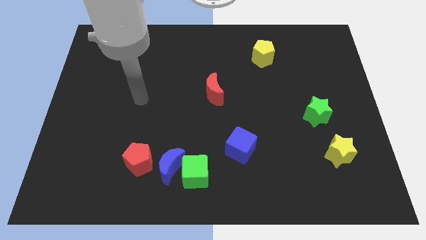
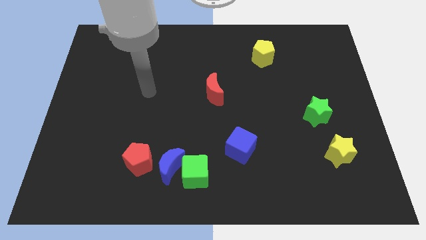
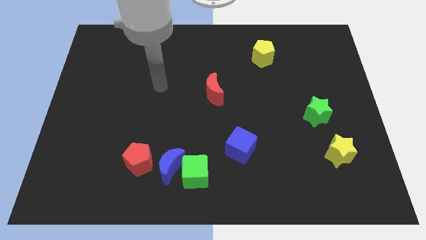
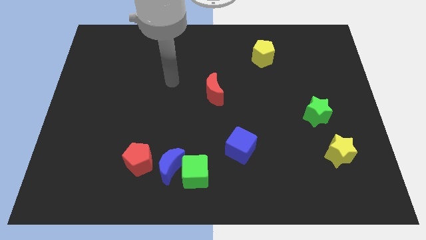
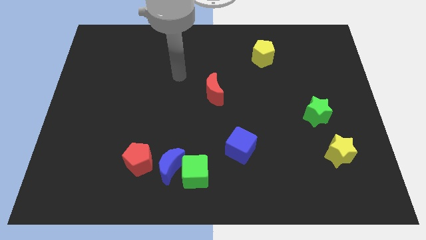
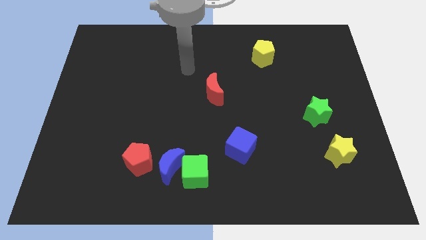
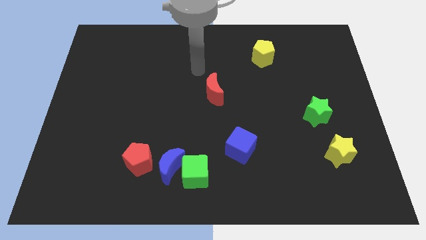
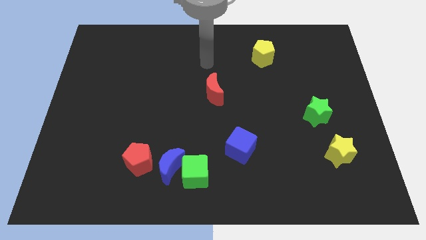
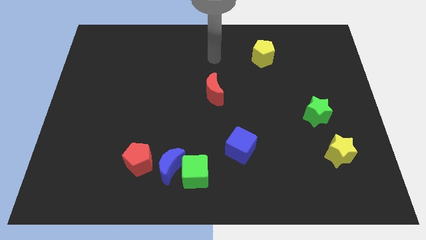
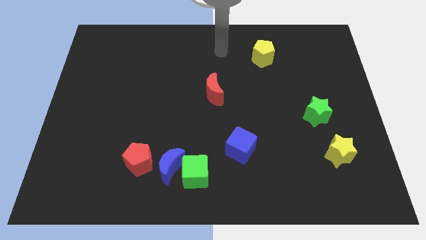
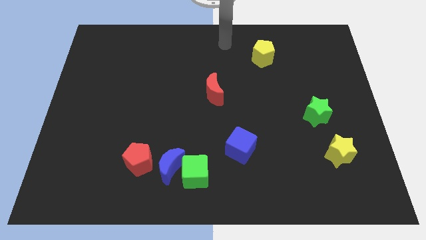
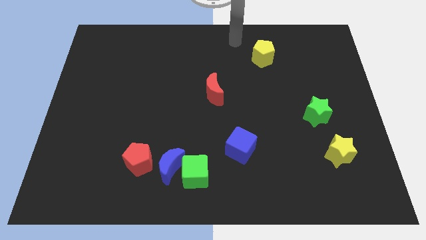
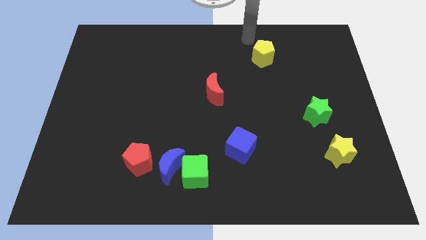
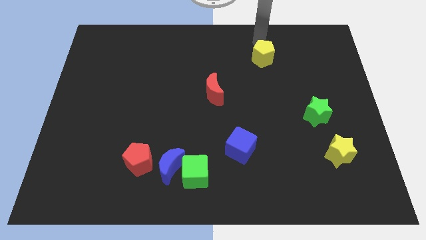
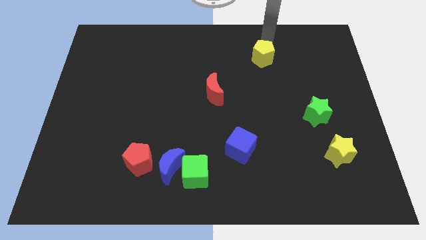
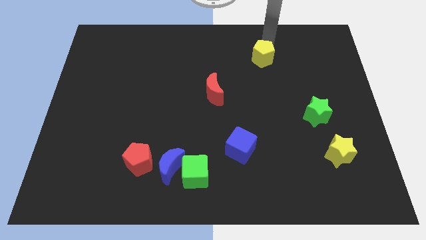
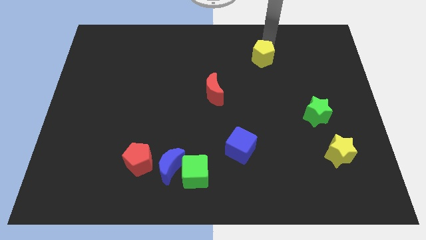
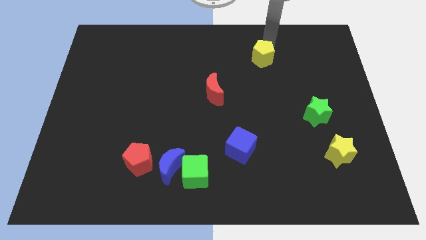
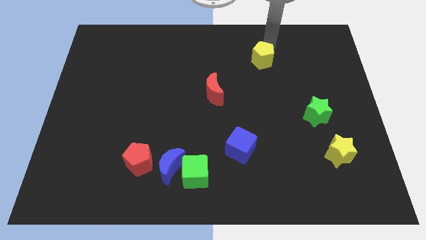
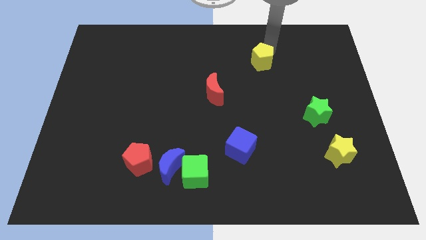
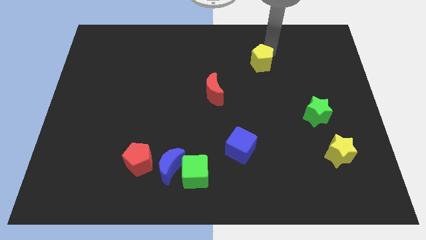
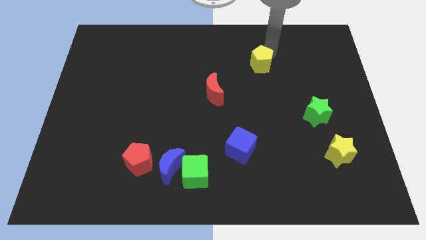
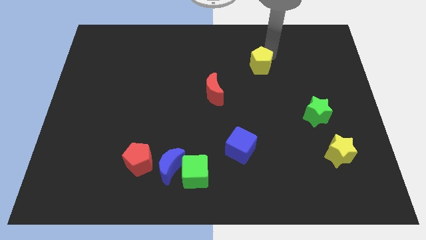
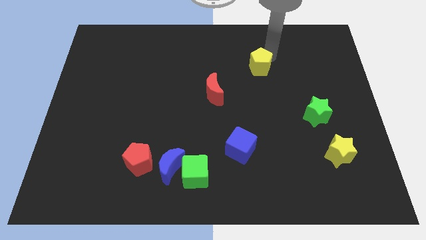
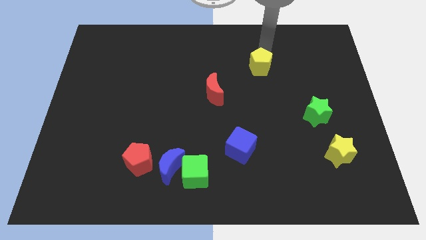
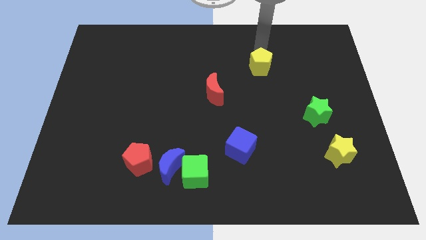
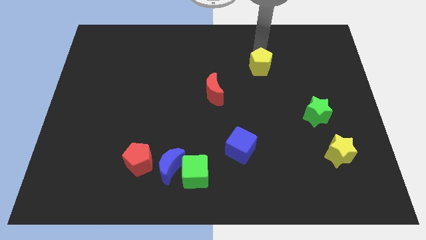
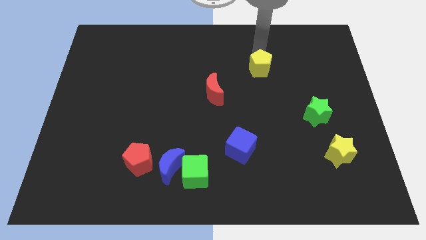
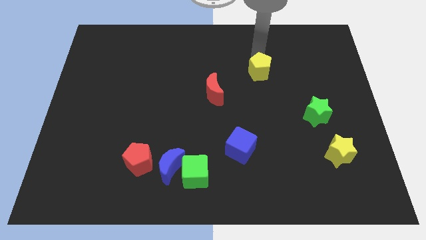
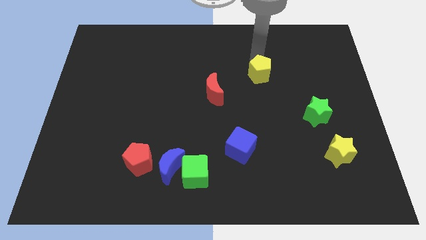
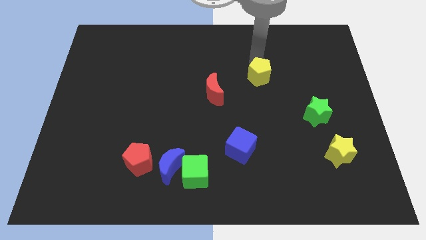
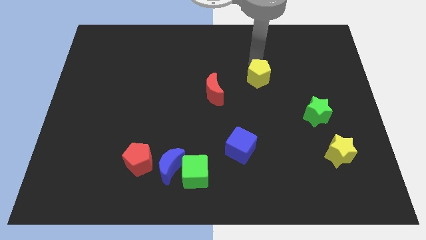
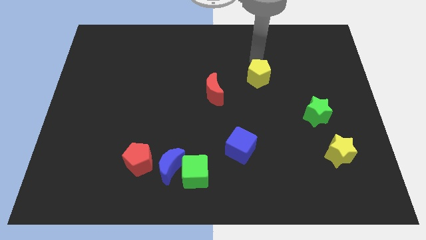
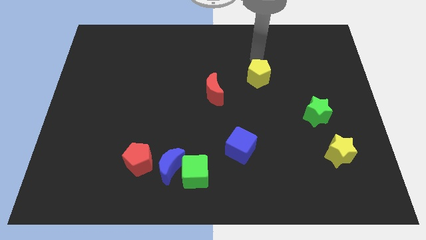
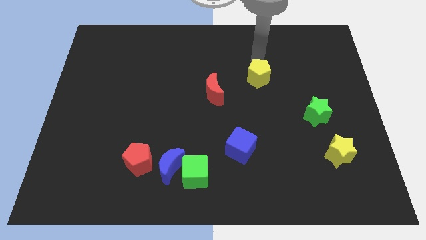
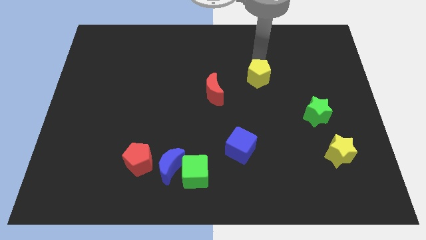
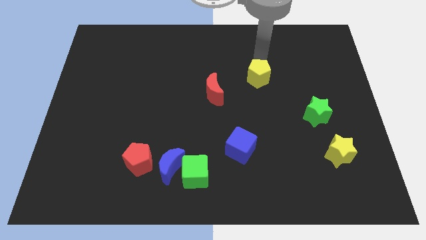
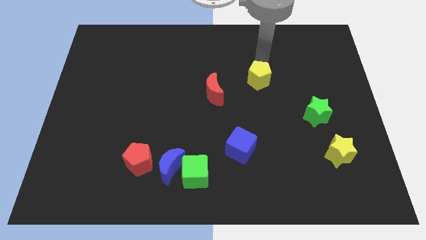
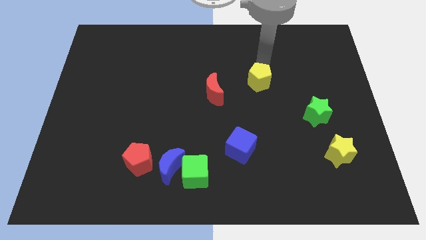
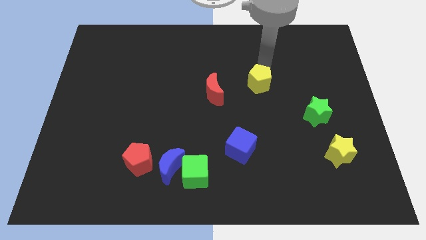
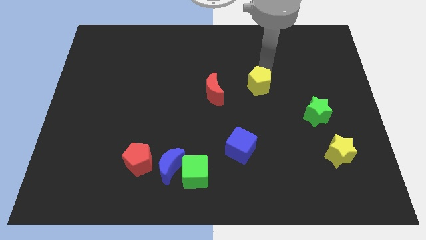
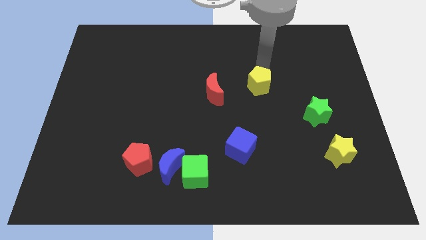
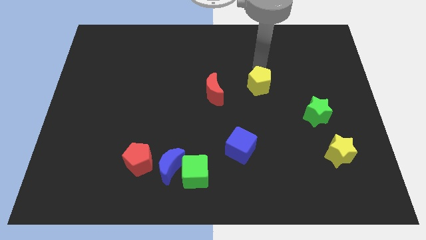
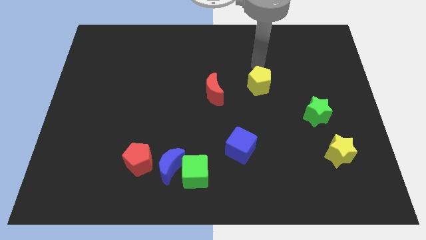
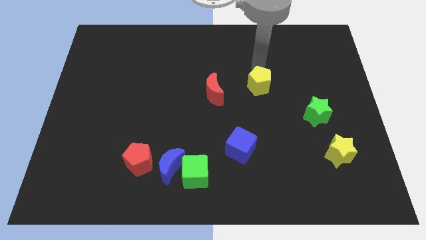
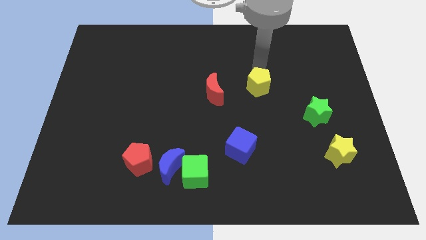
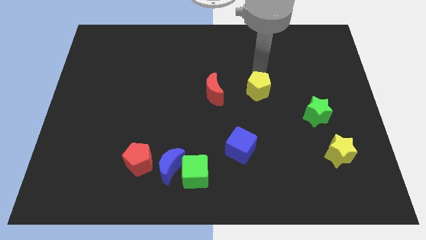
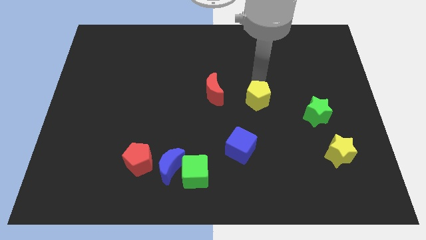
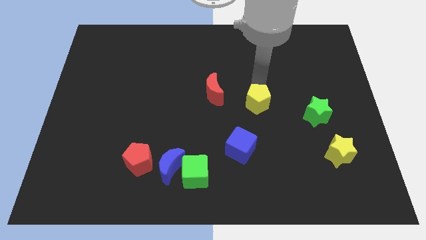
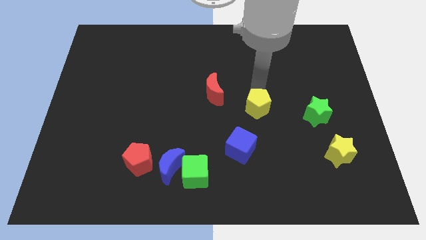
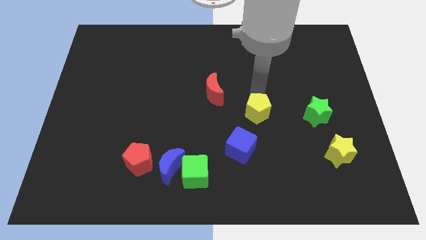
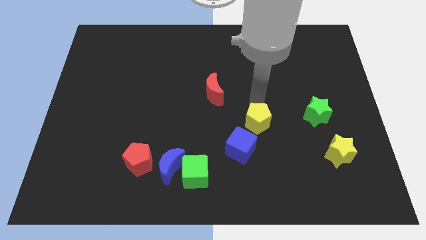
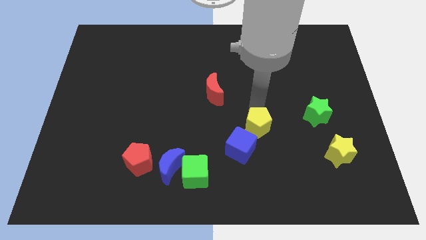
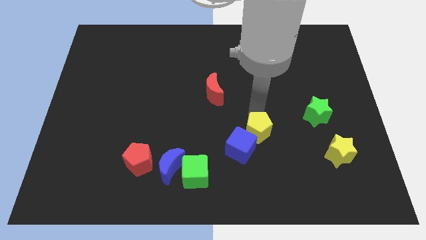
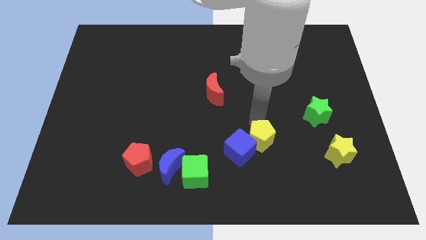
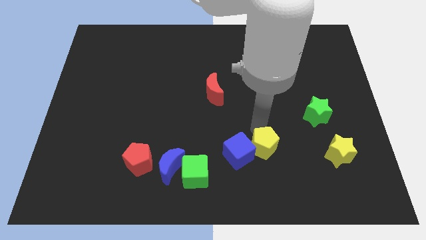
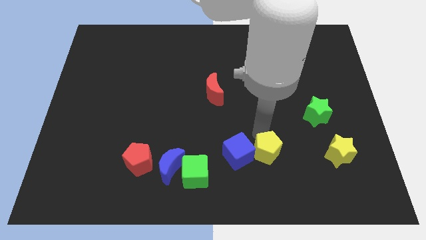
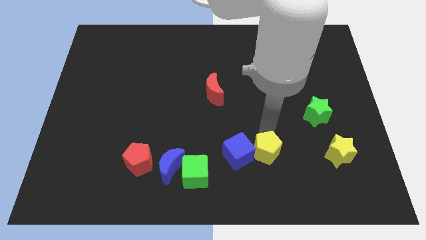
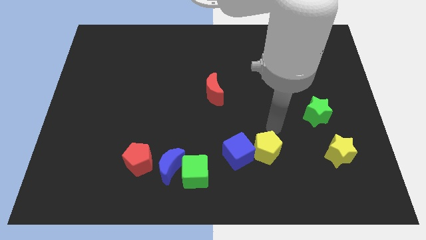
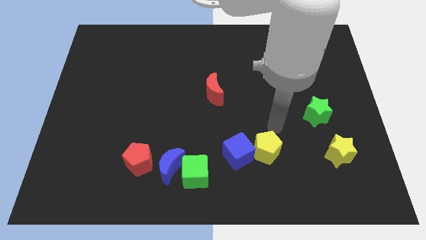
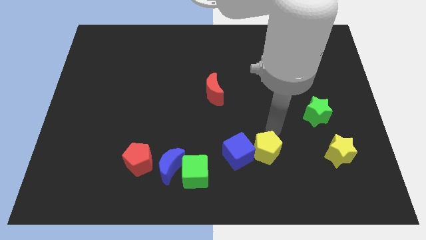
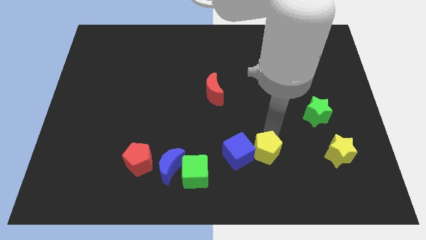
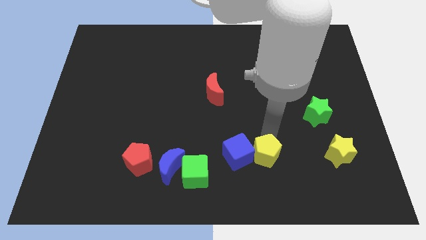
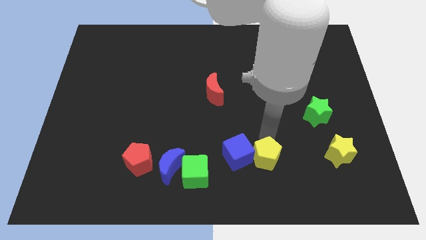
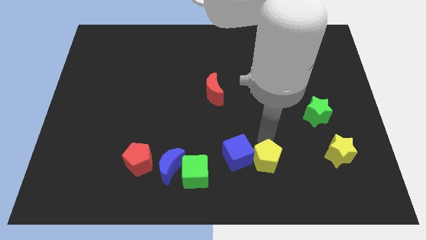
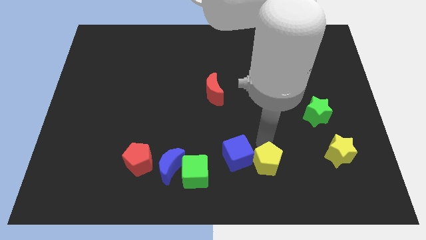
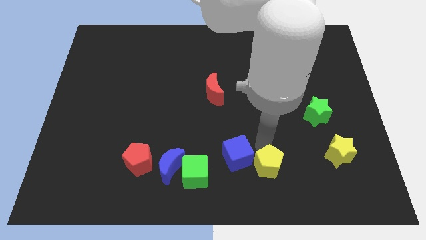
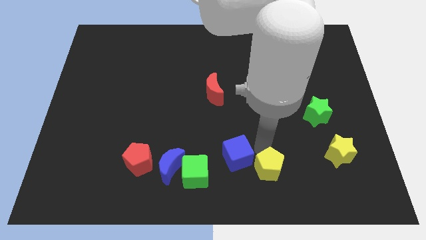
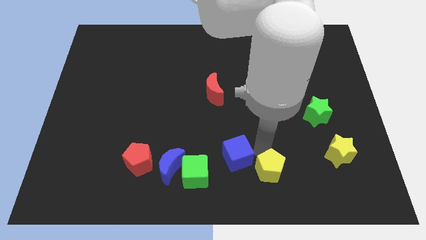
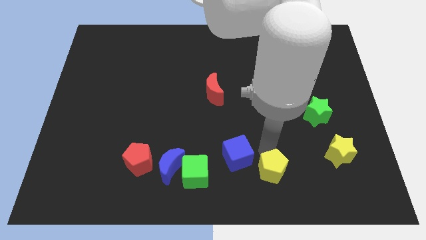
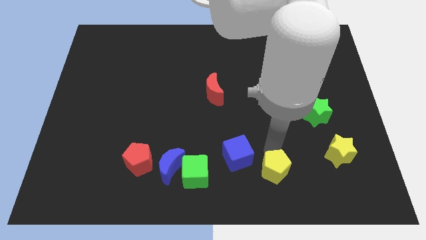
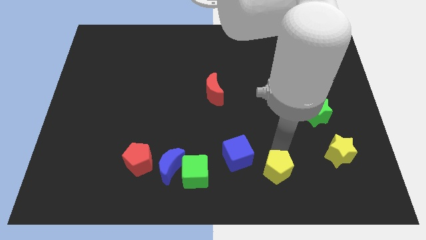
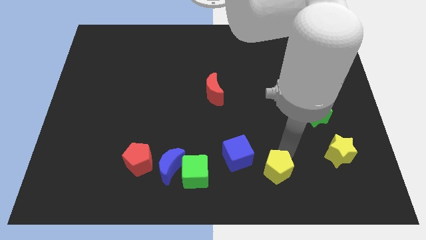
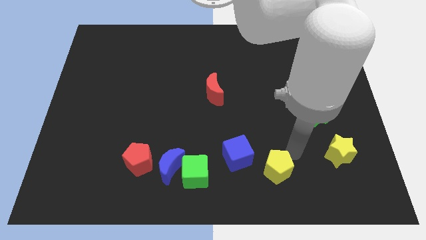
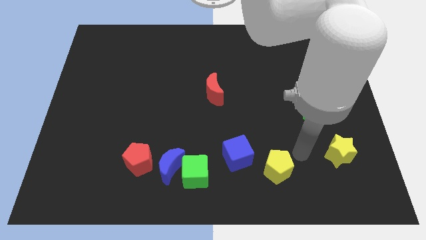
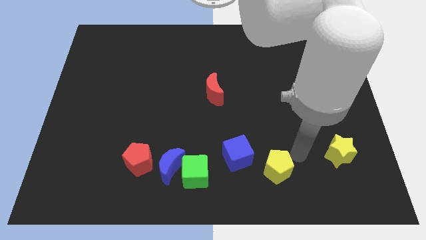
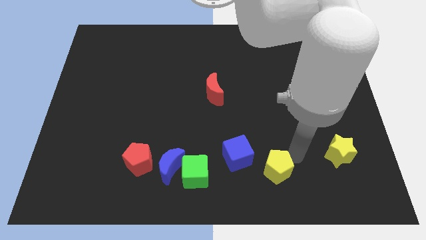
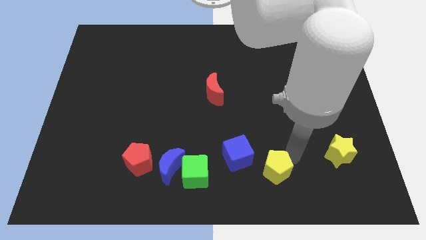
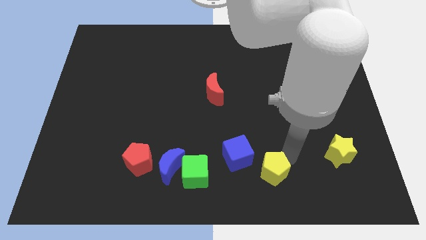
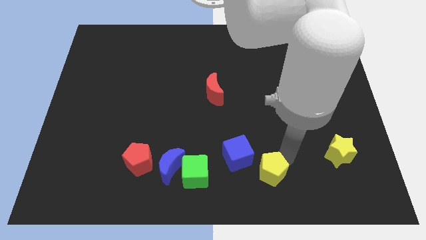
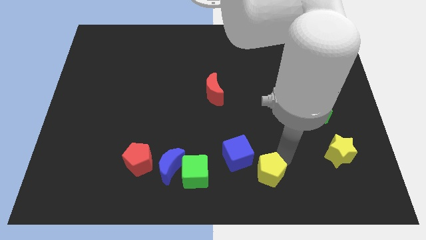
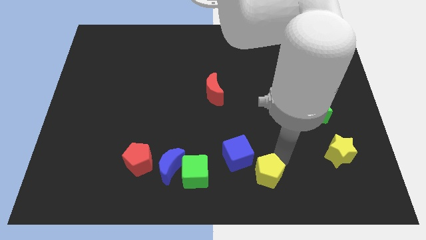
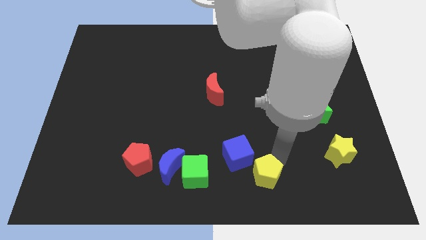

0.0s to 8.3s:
push the yellow pentagon to the bottom
